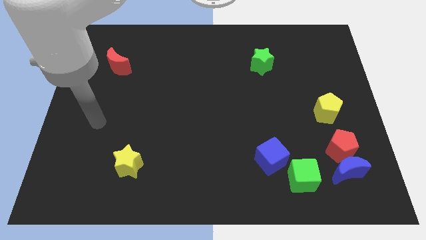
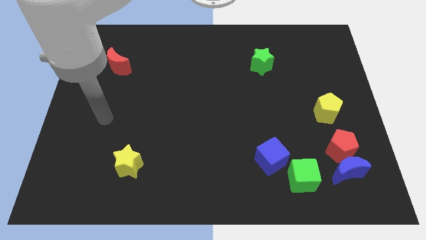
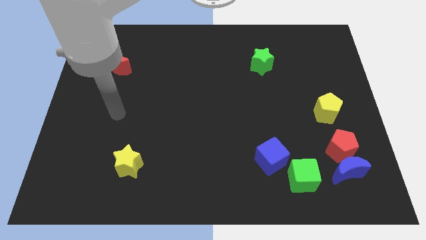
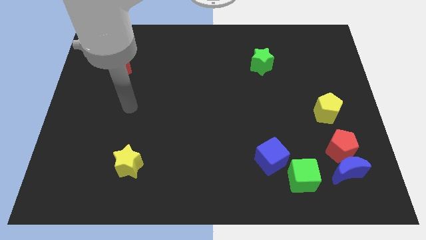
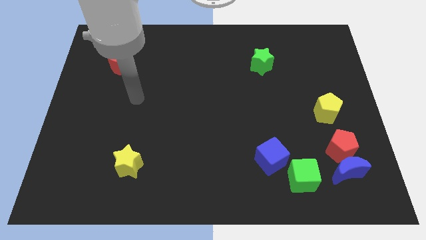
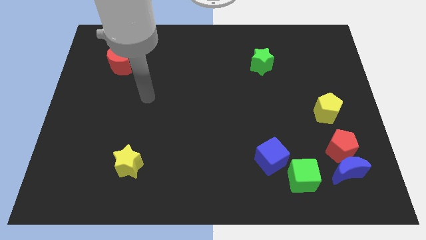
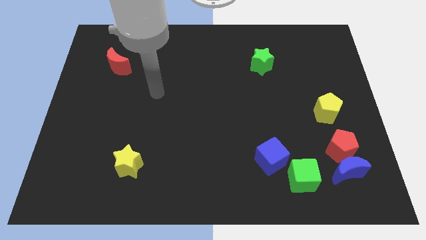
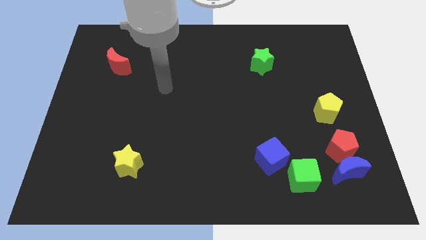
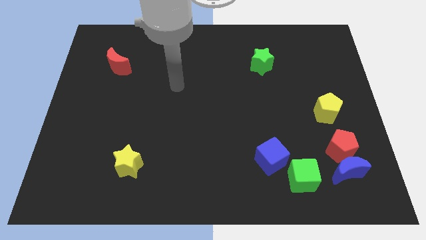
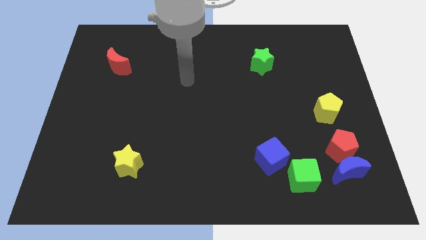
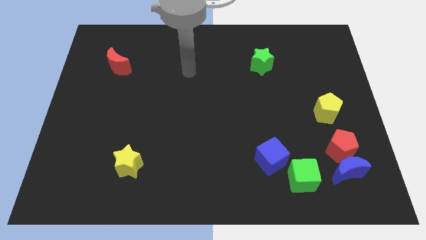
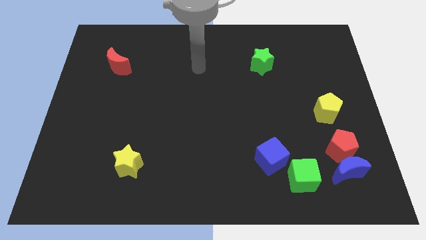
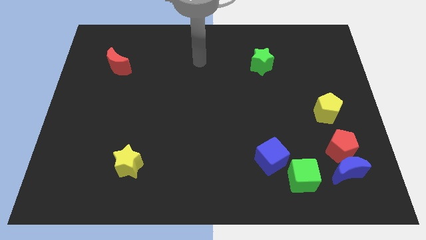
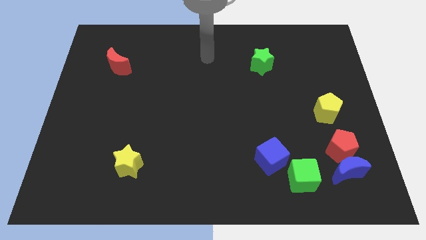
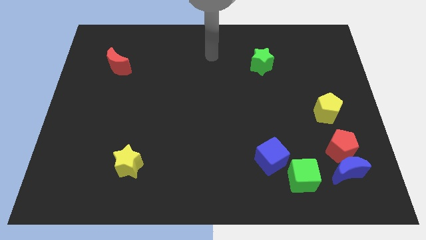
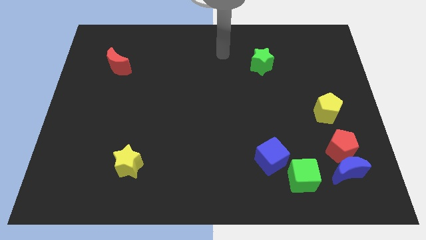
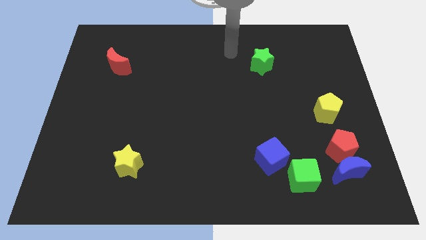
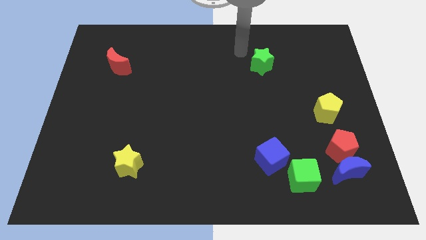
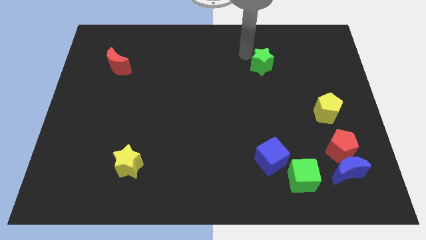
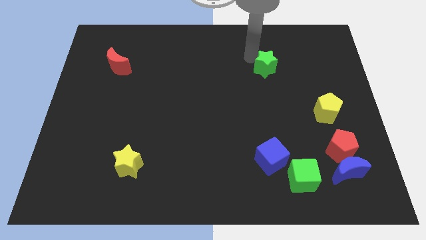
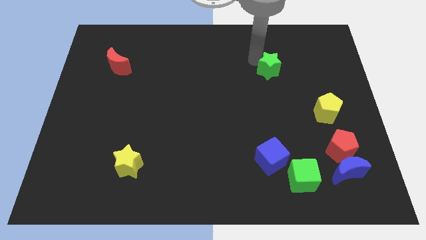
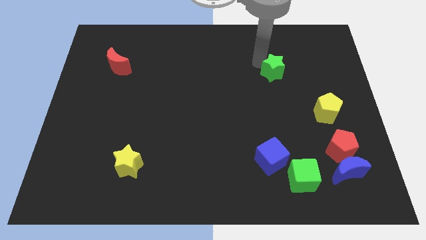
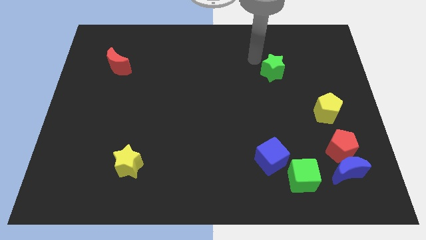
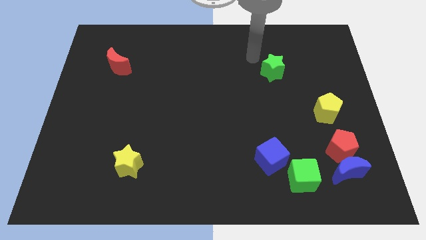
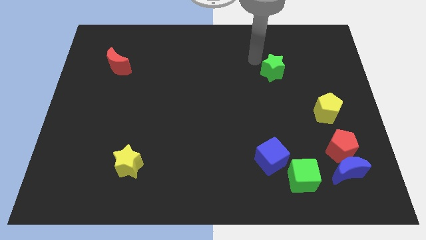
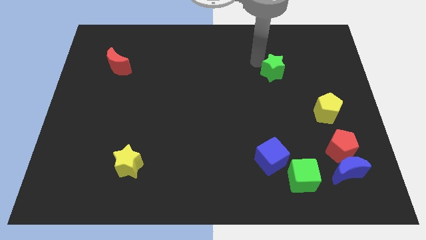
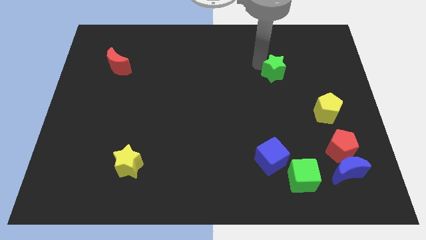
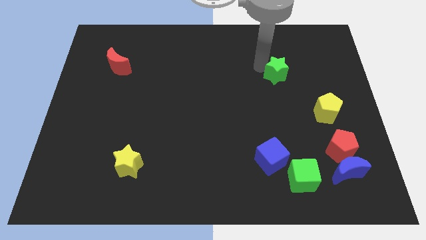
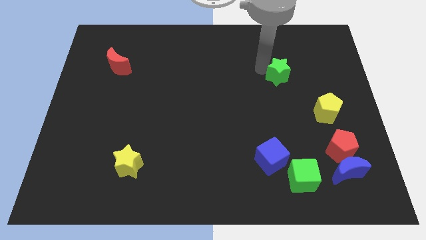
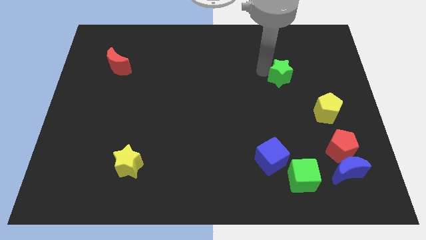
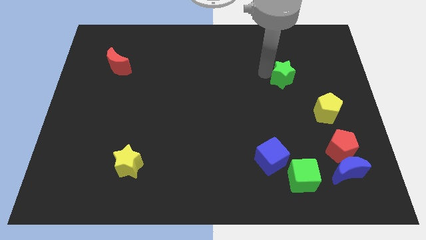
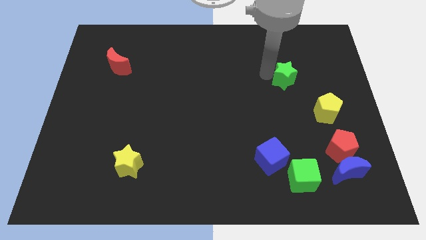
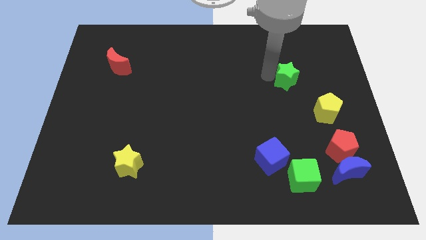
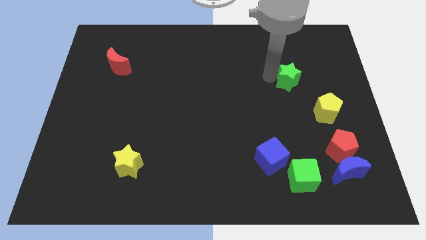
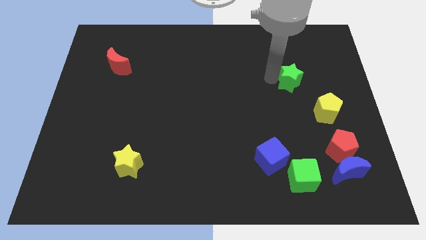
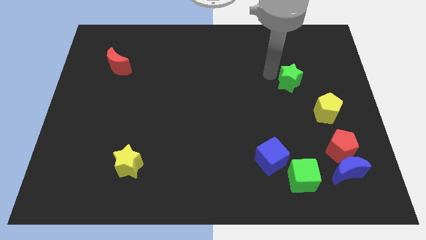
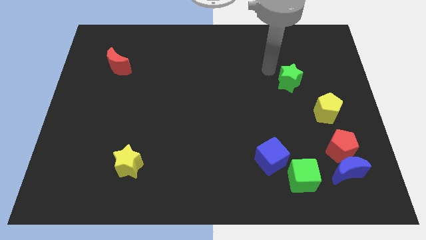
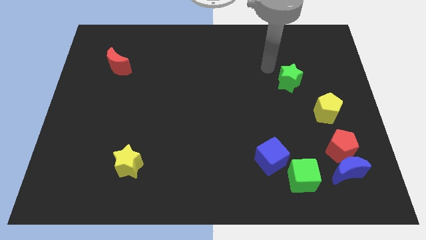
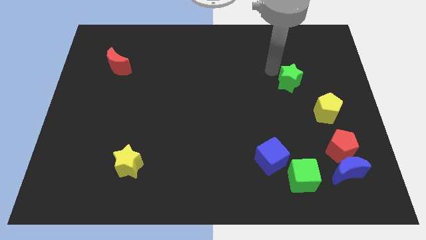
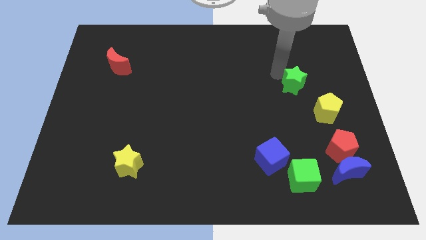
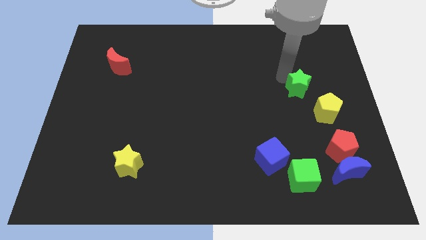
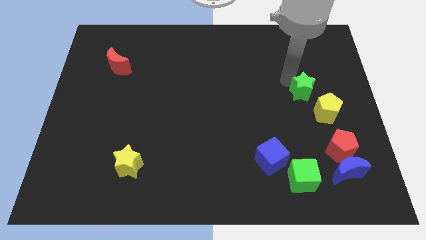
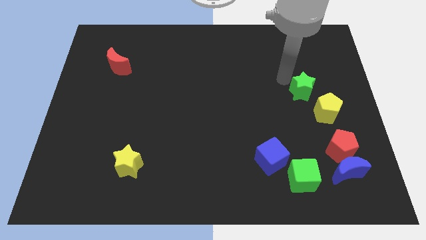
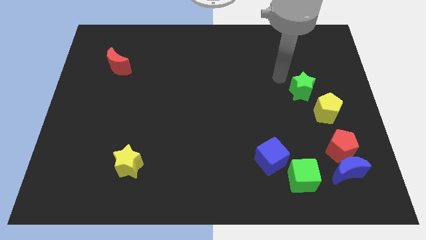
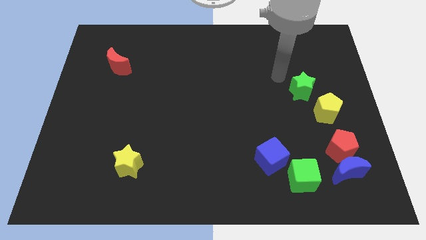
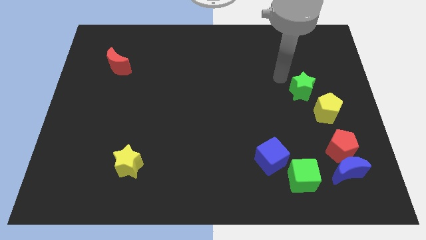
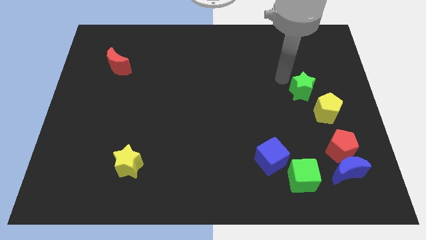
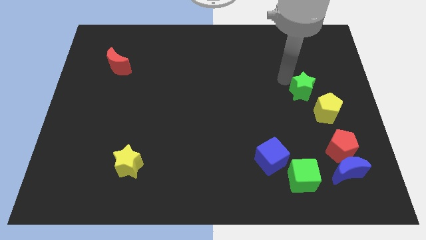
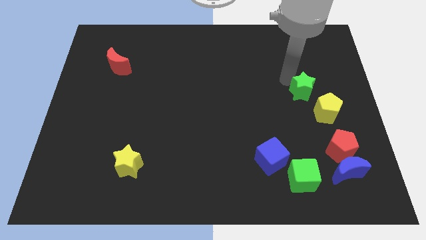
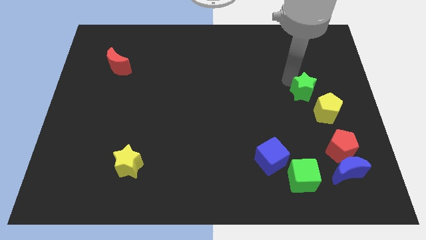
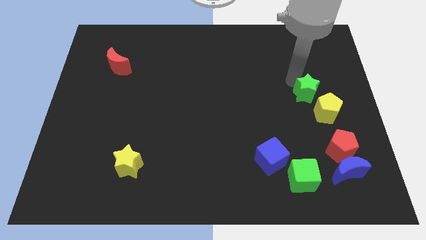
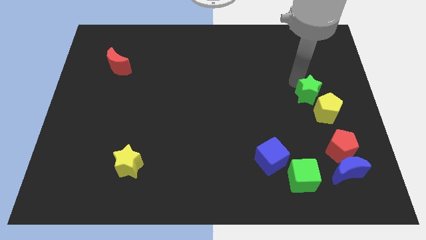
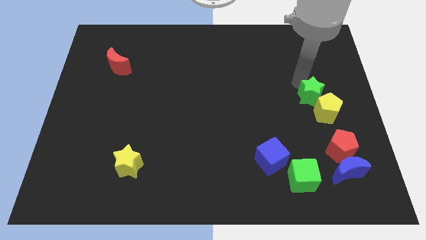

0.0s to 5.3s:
move the green star to the yellow pentagon
